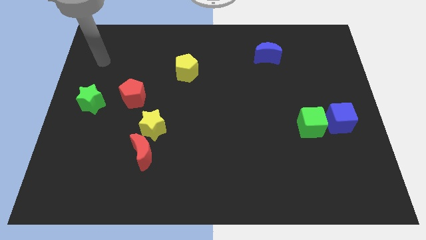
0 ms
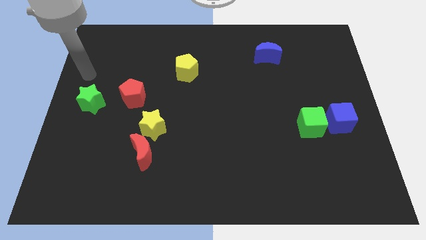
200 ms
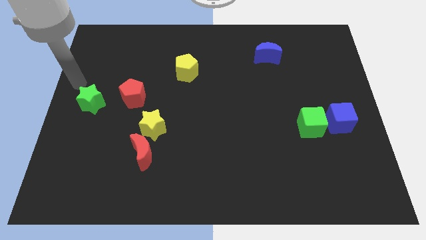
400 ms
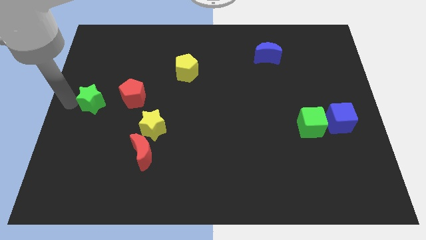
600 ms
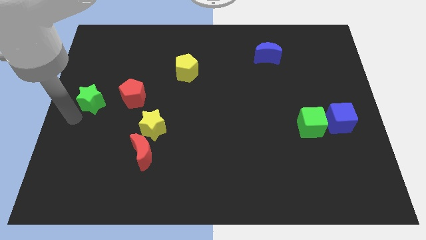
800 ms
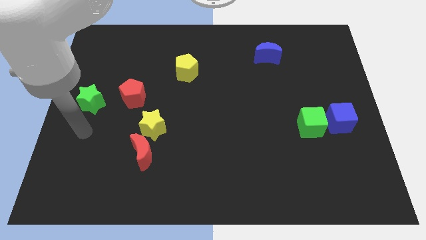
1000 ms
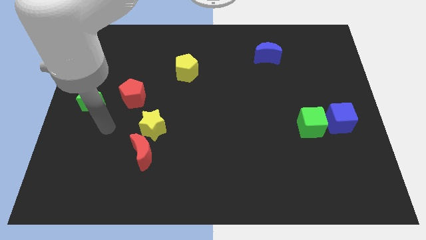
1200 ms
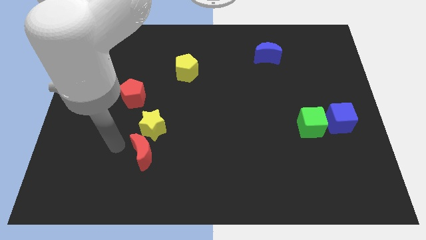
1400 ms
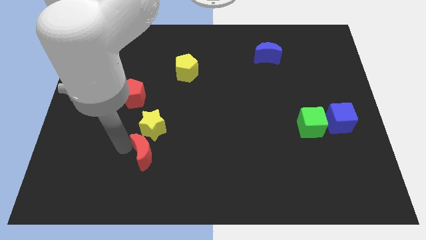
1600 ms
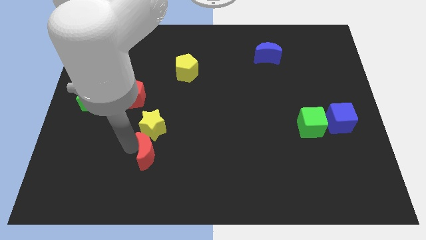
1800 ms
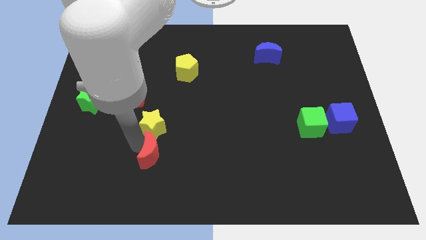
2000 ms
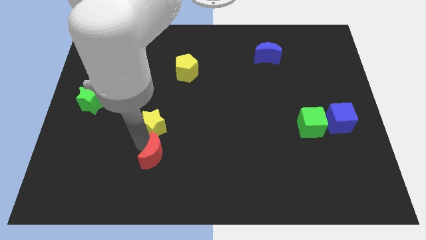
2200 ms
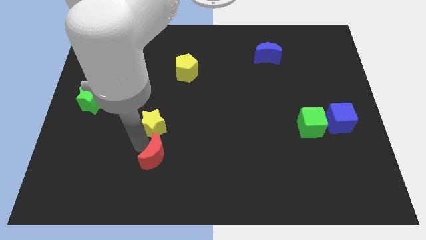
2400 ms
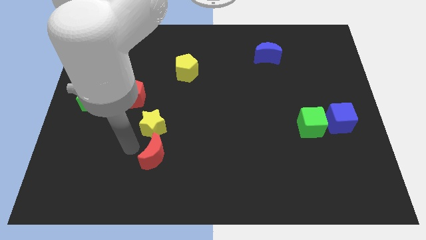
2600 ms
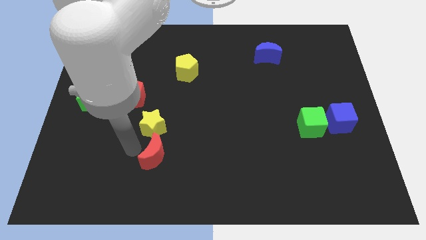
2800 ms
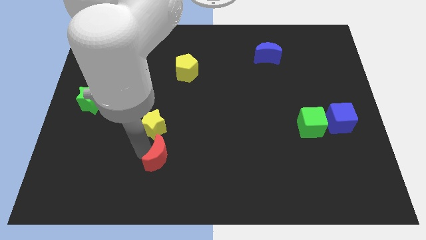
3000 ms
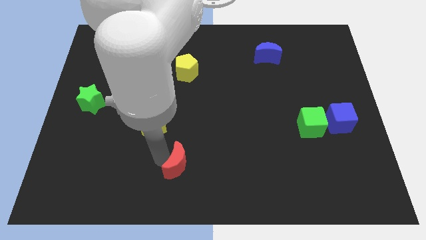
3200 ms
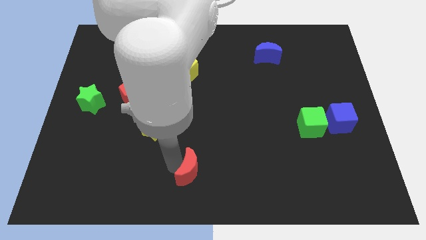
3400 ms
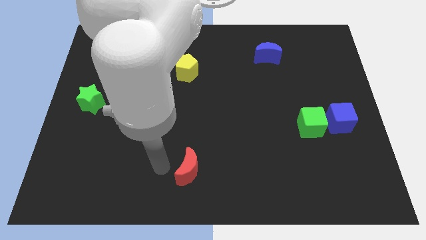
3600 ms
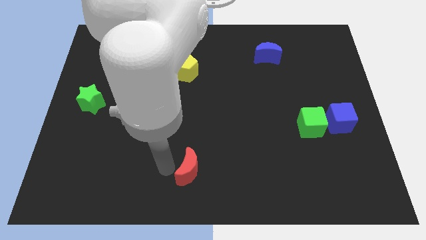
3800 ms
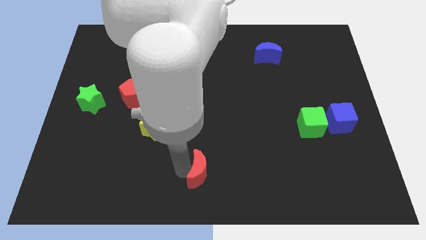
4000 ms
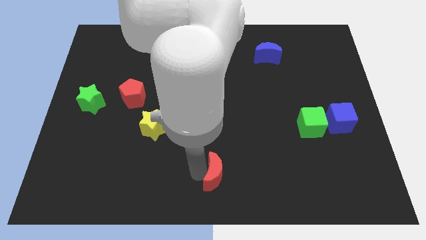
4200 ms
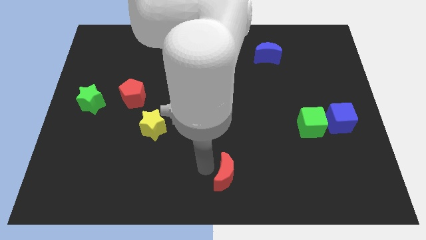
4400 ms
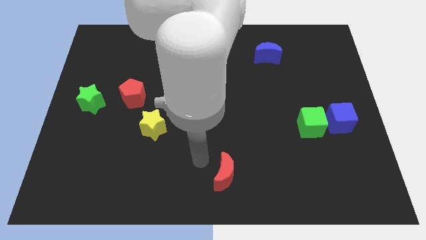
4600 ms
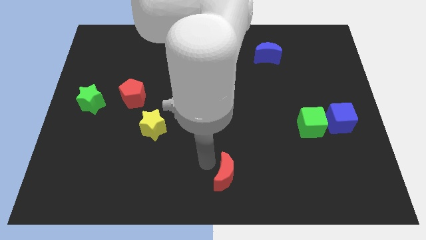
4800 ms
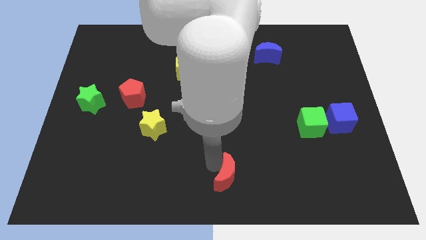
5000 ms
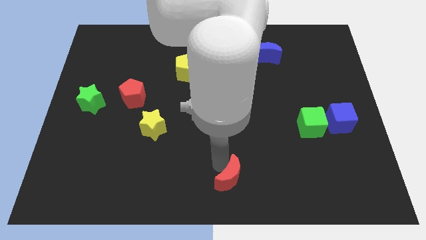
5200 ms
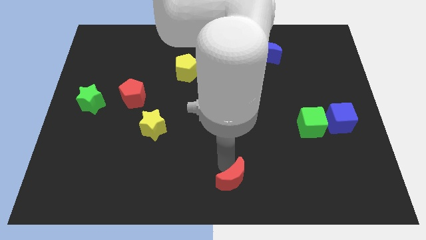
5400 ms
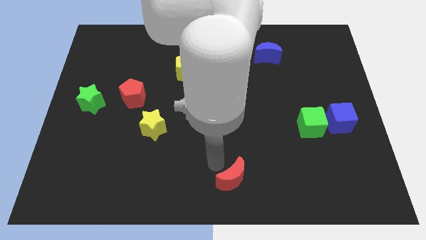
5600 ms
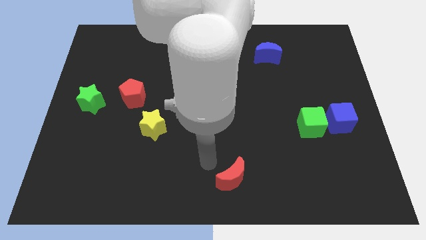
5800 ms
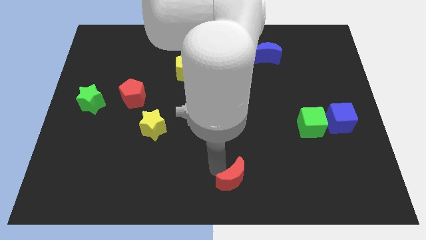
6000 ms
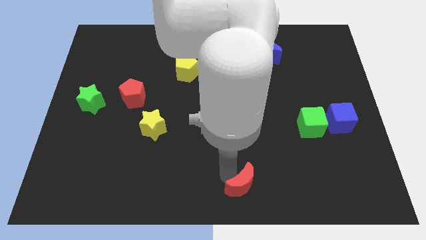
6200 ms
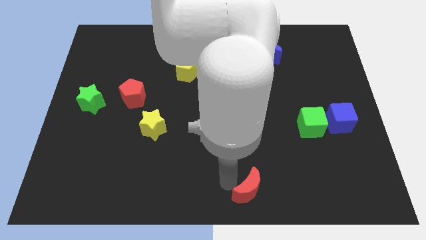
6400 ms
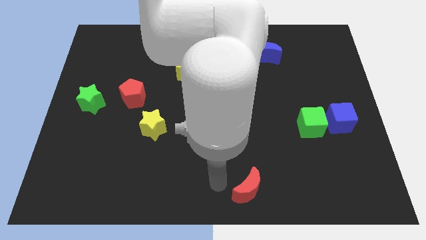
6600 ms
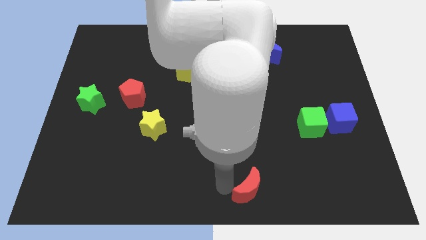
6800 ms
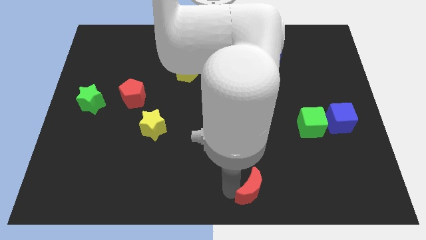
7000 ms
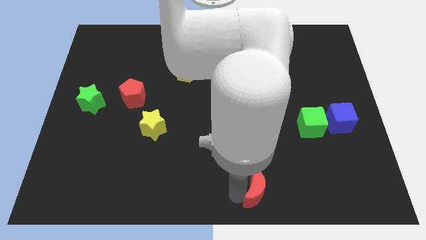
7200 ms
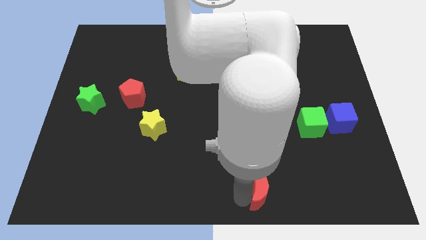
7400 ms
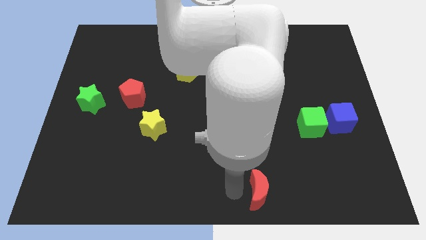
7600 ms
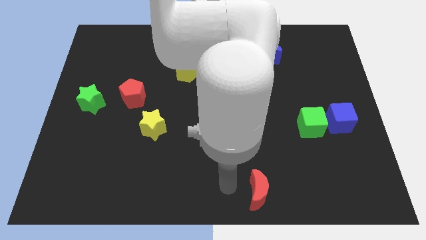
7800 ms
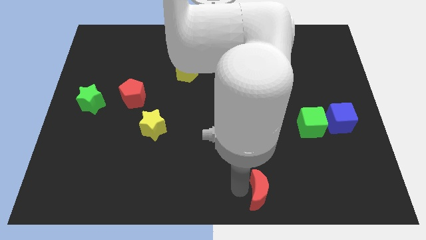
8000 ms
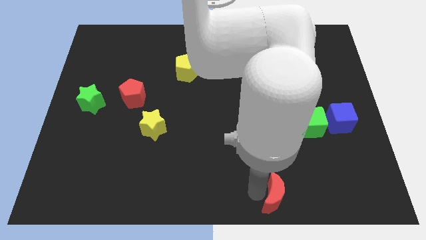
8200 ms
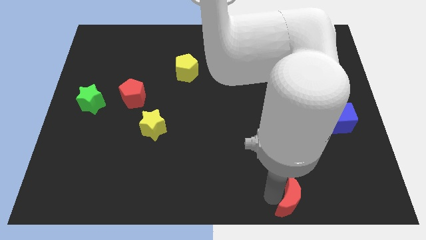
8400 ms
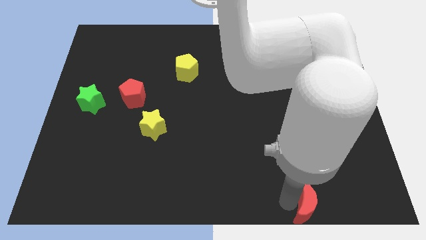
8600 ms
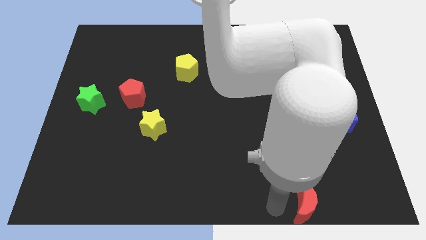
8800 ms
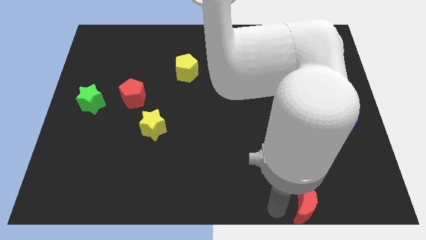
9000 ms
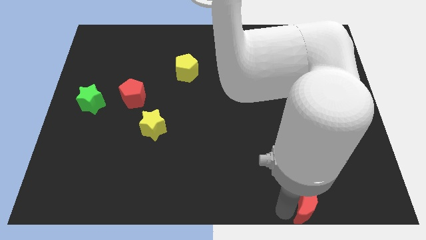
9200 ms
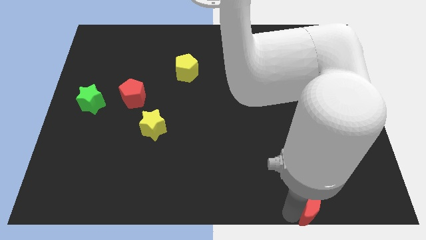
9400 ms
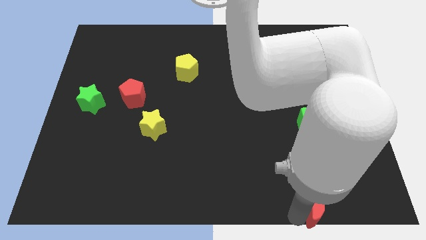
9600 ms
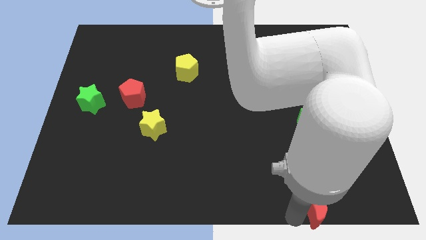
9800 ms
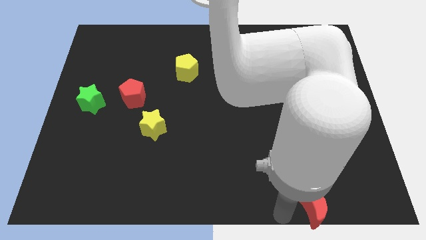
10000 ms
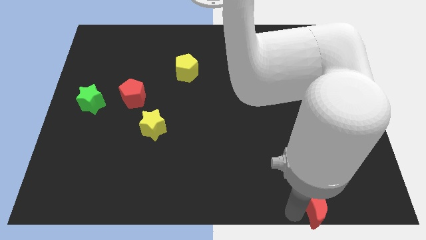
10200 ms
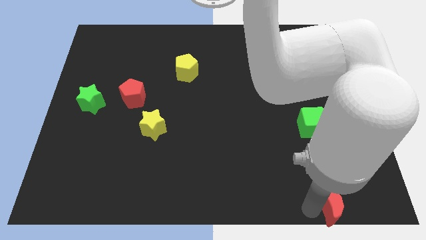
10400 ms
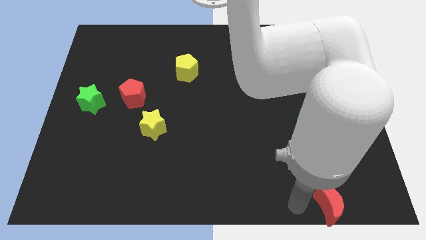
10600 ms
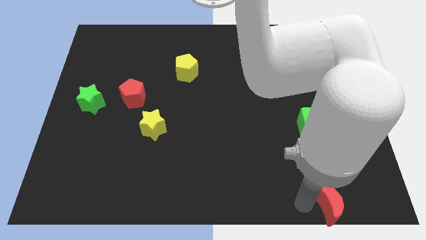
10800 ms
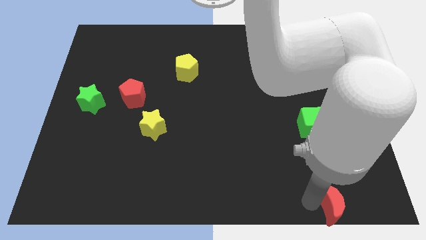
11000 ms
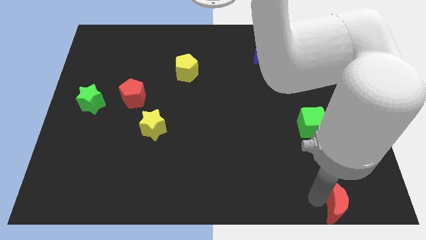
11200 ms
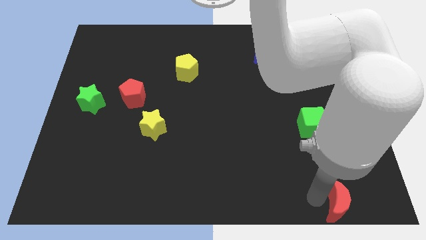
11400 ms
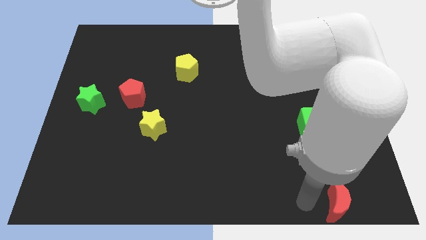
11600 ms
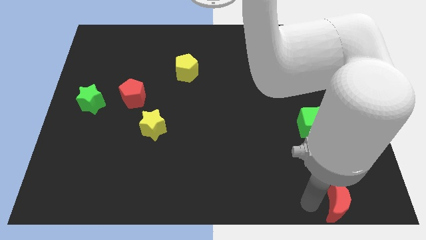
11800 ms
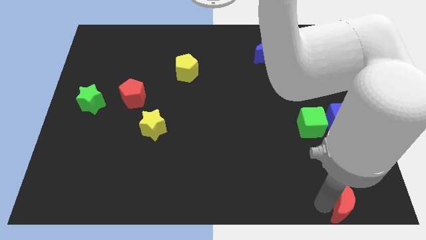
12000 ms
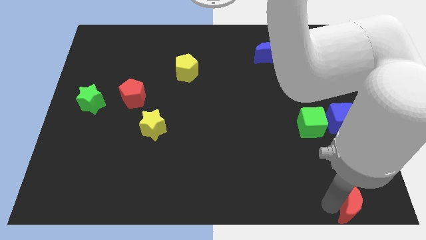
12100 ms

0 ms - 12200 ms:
push the red moon to the bottom right
